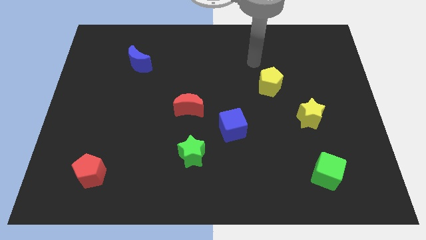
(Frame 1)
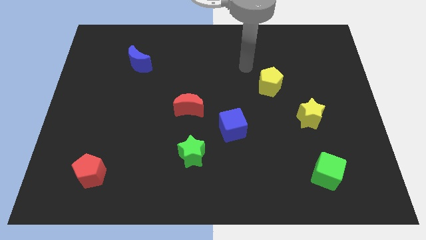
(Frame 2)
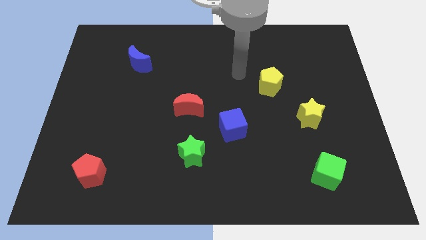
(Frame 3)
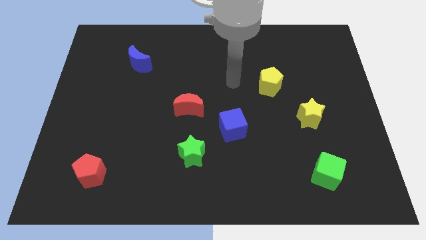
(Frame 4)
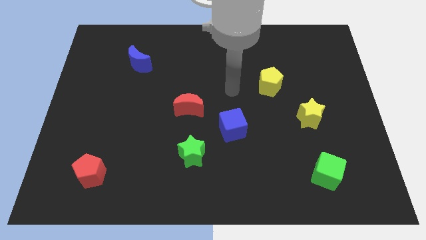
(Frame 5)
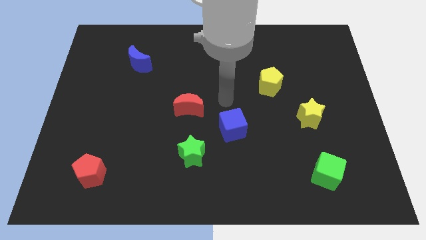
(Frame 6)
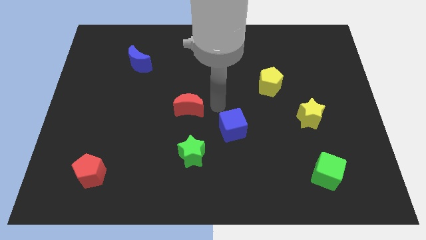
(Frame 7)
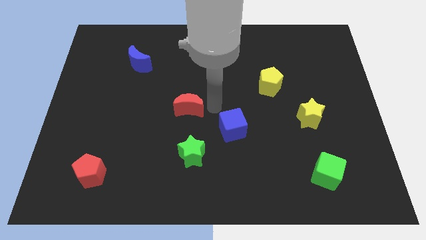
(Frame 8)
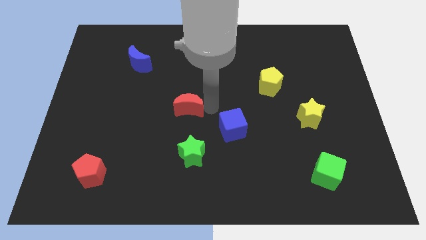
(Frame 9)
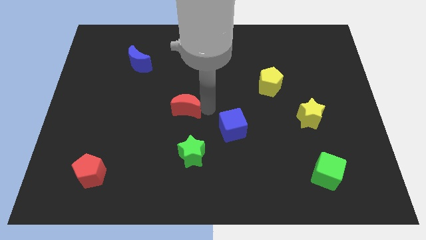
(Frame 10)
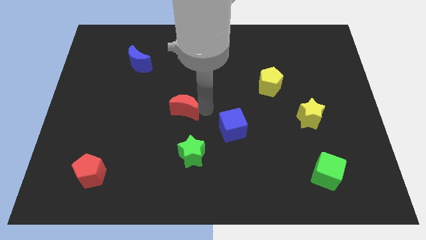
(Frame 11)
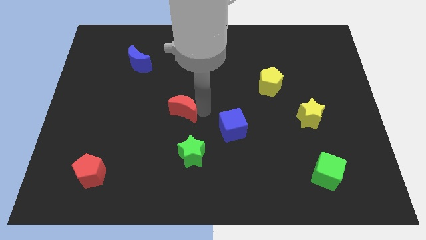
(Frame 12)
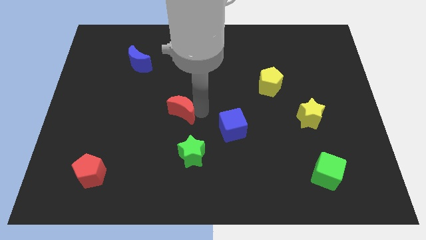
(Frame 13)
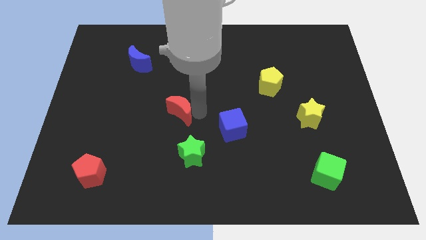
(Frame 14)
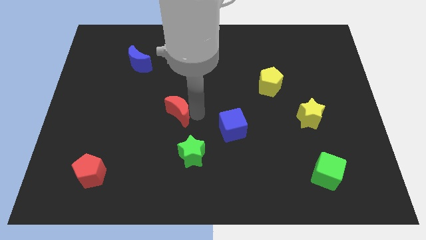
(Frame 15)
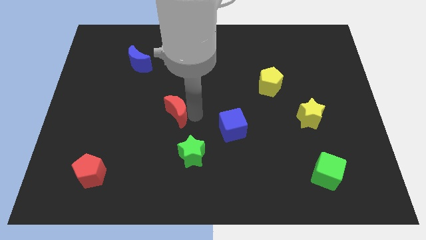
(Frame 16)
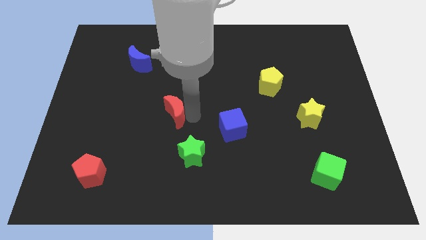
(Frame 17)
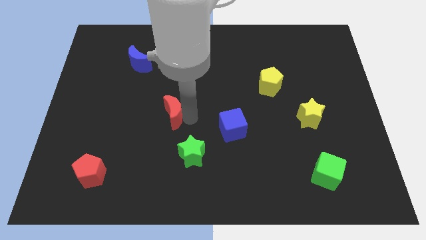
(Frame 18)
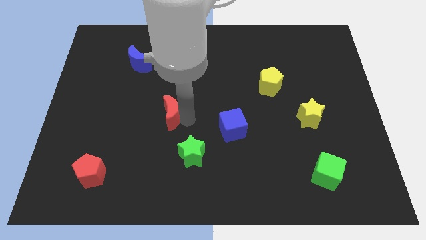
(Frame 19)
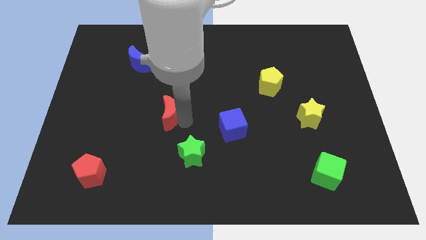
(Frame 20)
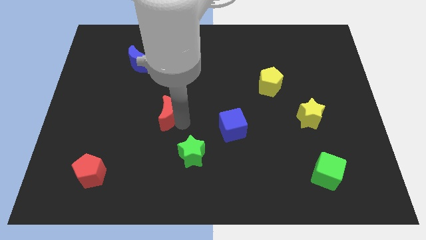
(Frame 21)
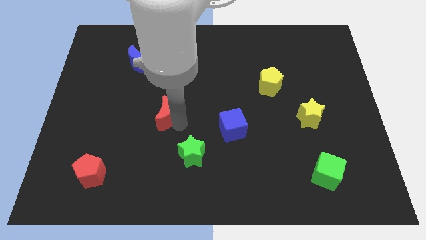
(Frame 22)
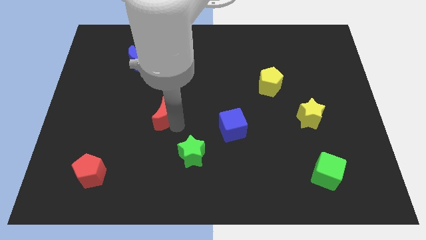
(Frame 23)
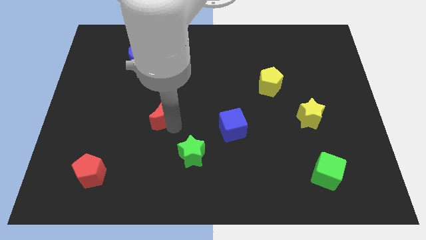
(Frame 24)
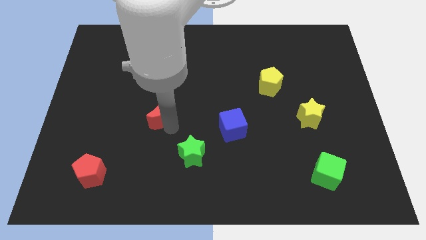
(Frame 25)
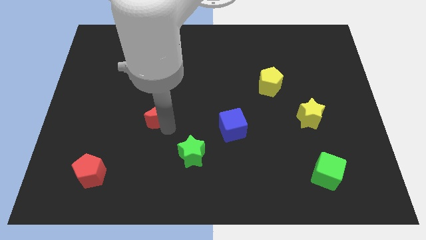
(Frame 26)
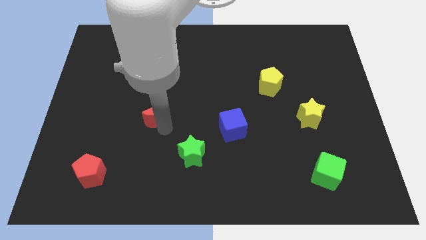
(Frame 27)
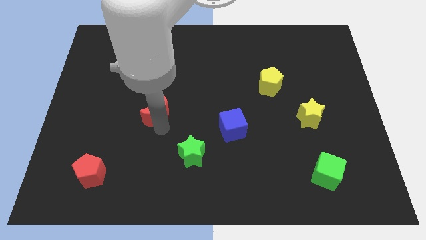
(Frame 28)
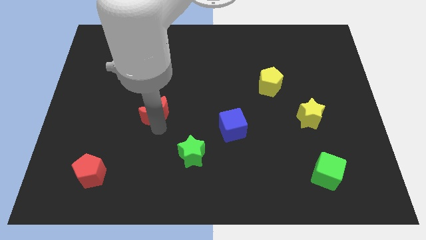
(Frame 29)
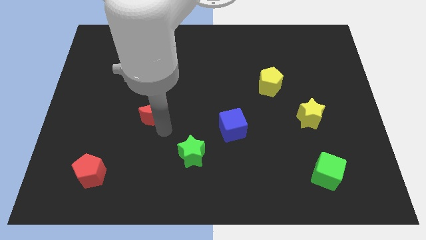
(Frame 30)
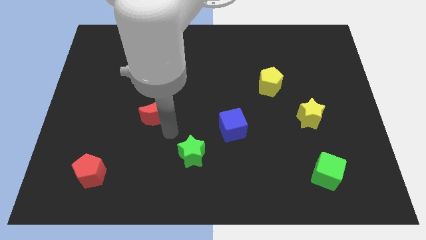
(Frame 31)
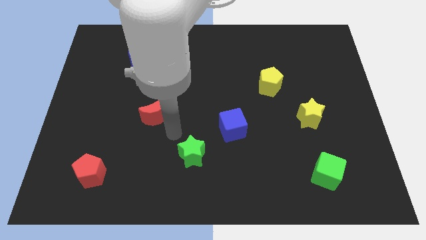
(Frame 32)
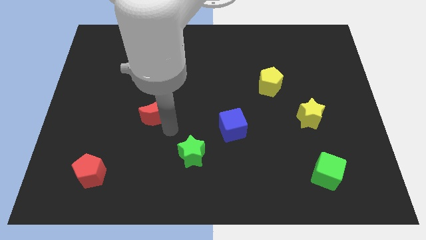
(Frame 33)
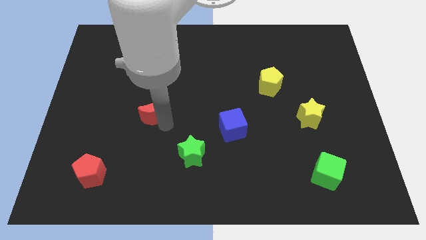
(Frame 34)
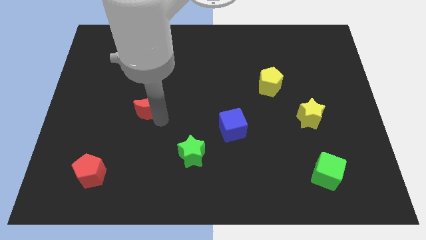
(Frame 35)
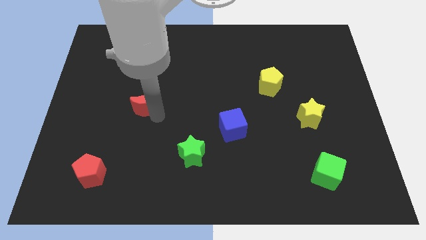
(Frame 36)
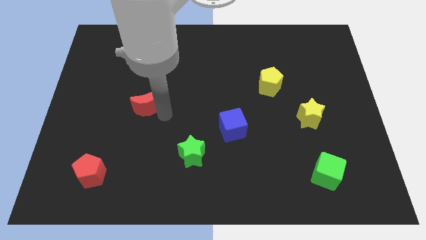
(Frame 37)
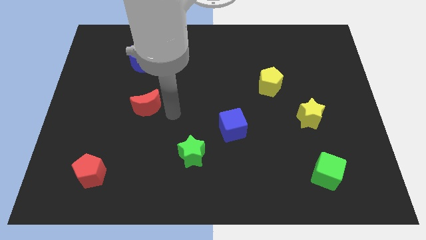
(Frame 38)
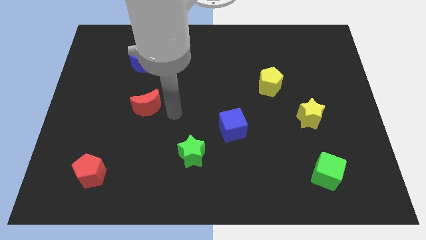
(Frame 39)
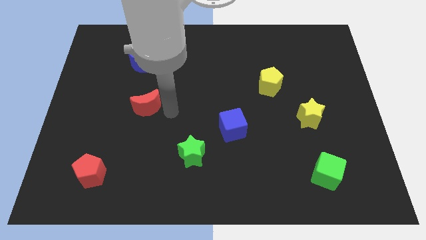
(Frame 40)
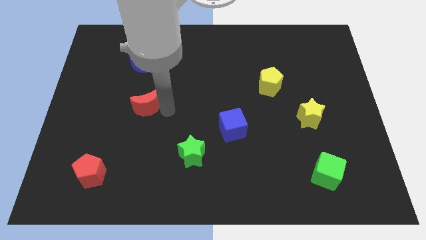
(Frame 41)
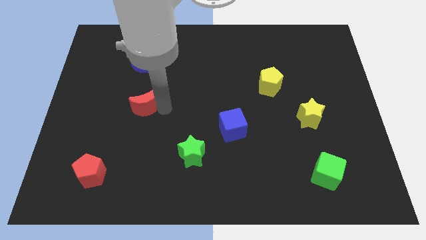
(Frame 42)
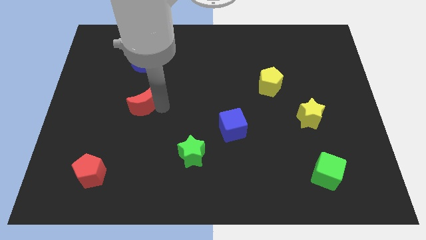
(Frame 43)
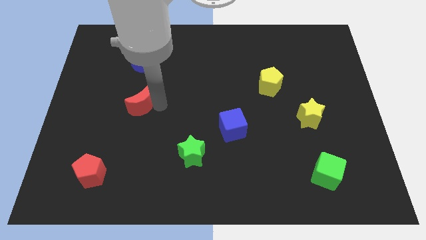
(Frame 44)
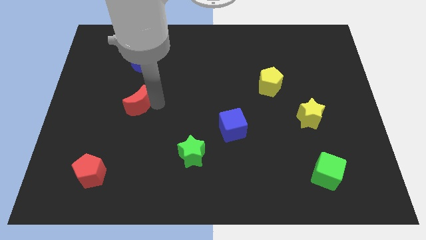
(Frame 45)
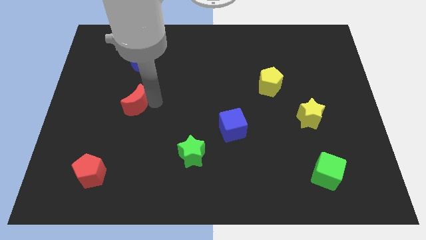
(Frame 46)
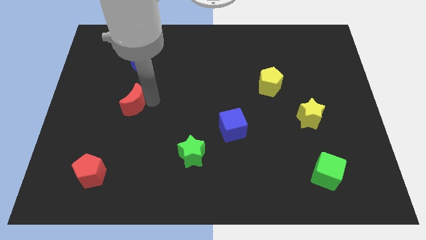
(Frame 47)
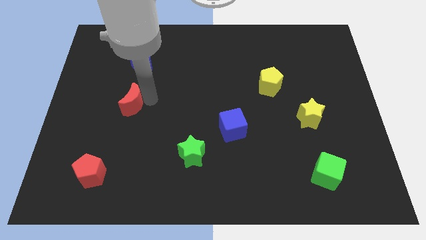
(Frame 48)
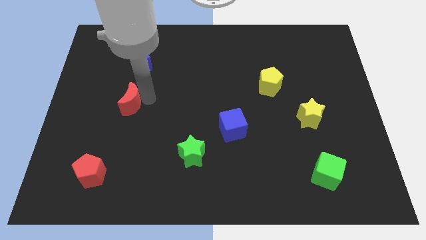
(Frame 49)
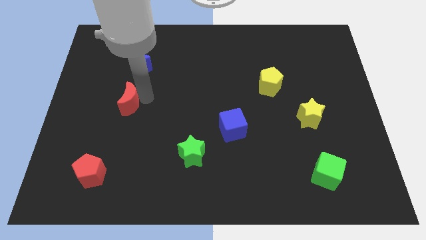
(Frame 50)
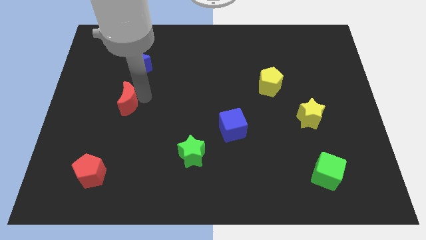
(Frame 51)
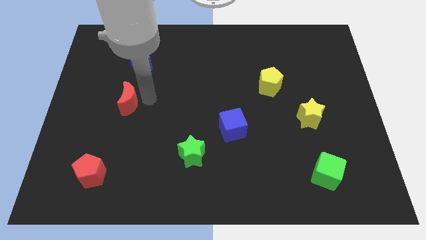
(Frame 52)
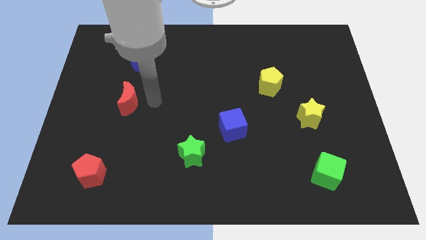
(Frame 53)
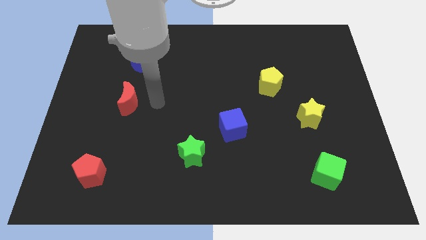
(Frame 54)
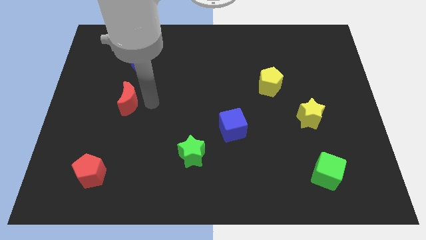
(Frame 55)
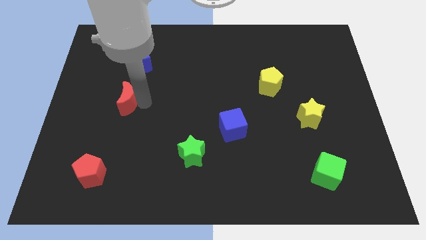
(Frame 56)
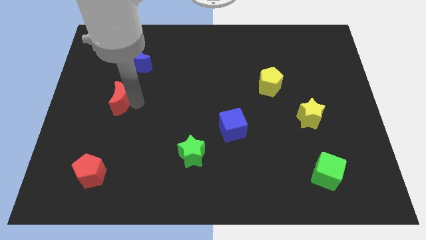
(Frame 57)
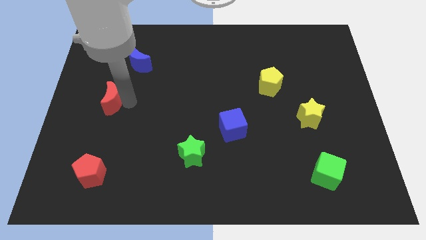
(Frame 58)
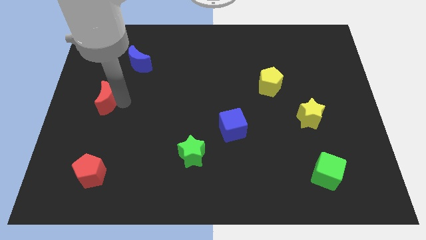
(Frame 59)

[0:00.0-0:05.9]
move the red moon to the left side of the board
